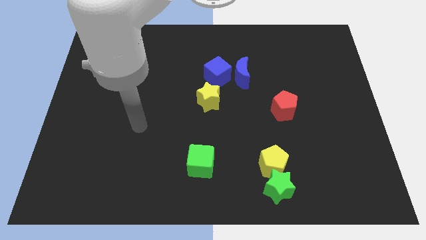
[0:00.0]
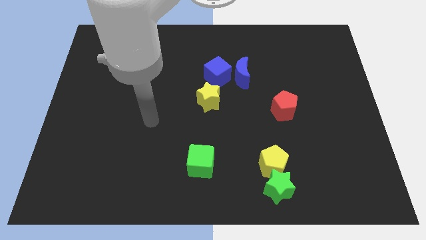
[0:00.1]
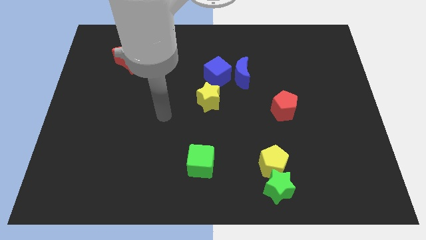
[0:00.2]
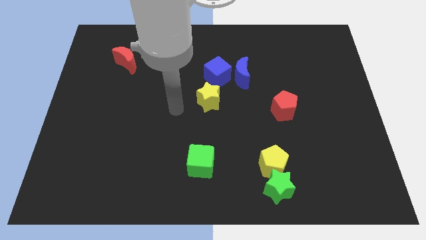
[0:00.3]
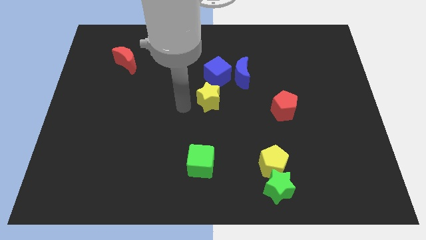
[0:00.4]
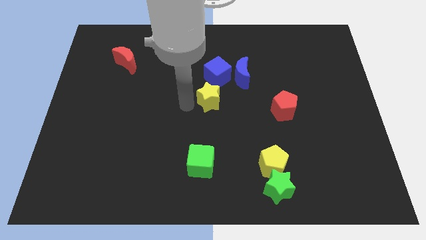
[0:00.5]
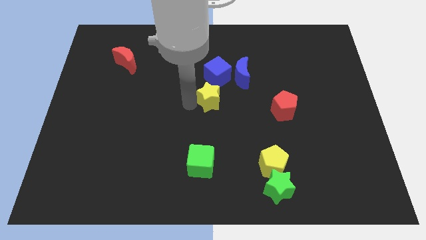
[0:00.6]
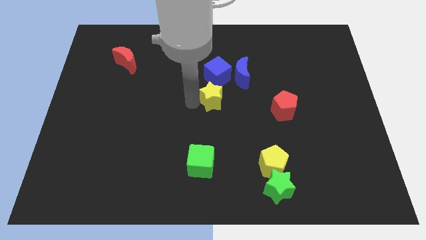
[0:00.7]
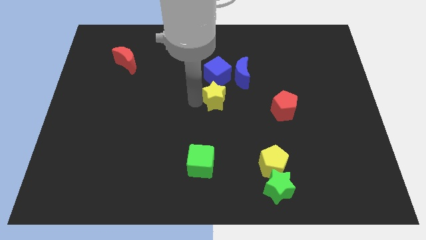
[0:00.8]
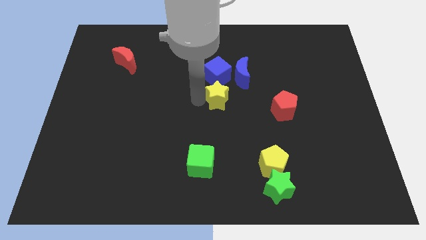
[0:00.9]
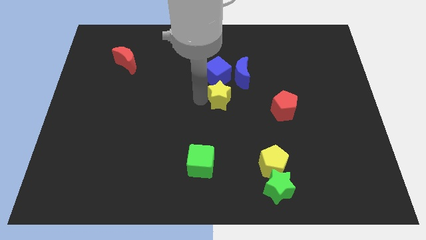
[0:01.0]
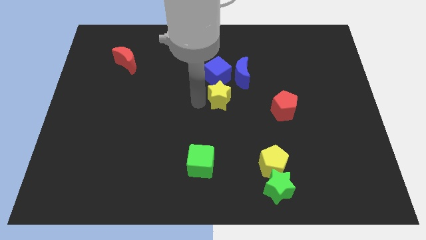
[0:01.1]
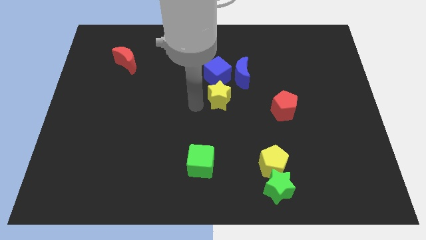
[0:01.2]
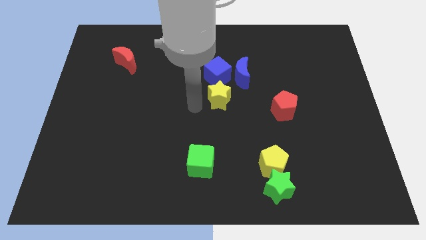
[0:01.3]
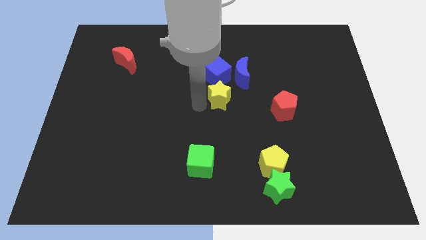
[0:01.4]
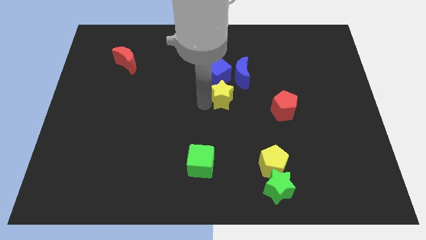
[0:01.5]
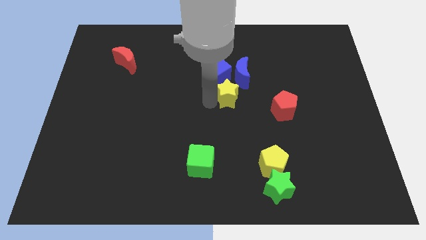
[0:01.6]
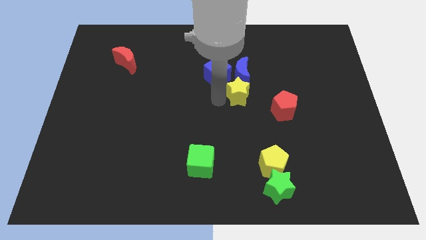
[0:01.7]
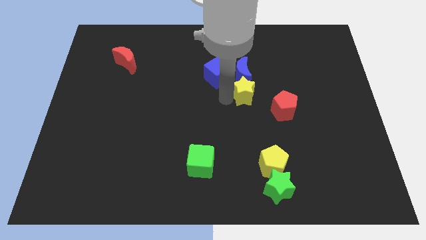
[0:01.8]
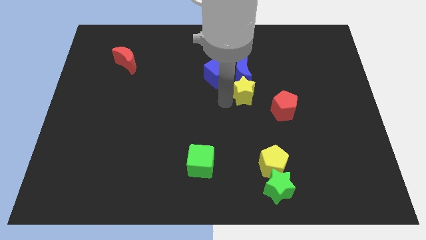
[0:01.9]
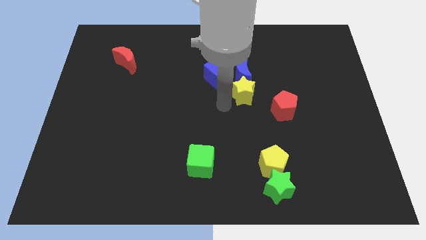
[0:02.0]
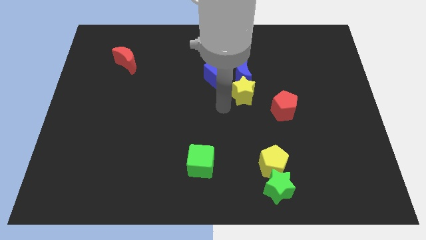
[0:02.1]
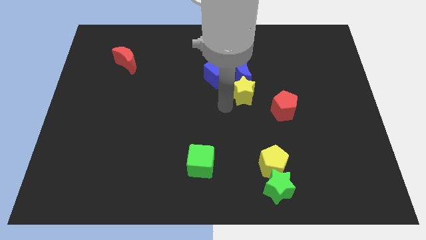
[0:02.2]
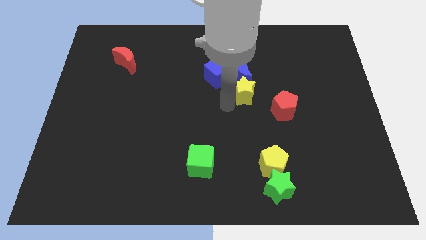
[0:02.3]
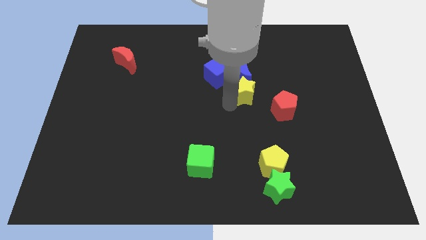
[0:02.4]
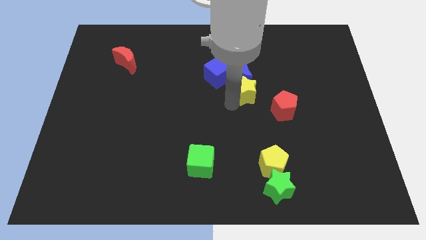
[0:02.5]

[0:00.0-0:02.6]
move the yellow star up and then to the right a bit

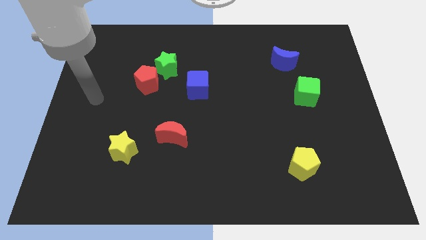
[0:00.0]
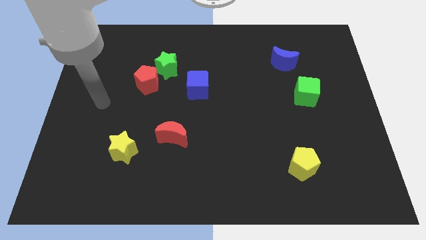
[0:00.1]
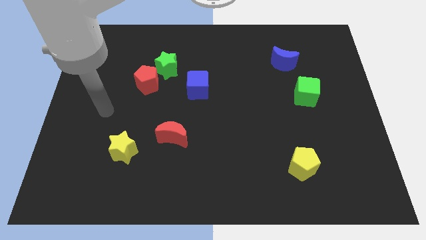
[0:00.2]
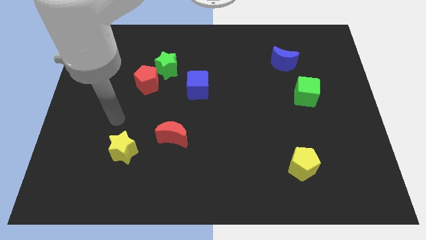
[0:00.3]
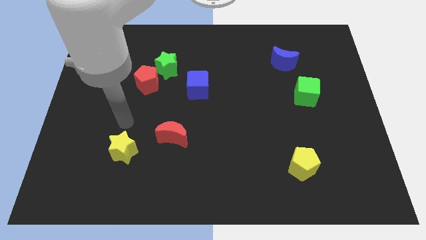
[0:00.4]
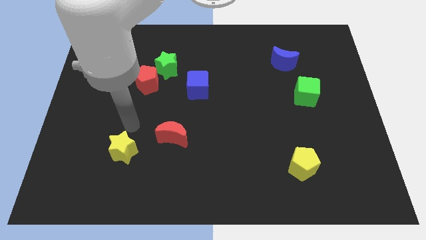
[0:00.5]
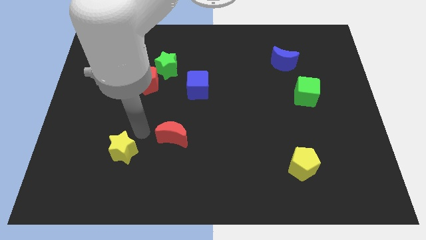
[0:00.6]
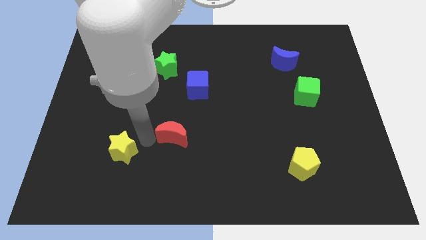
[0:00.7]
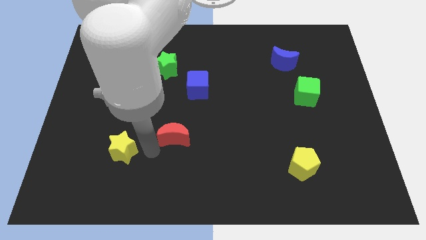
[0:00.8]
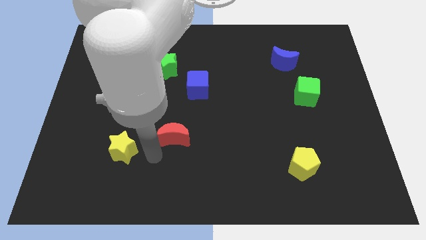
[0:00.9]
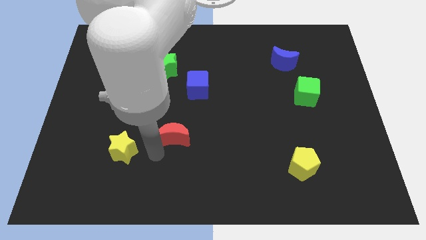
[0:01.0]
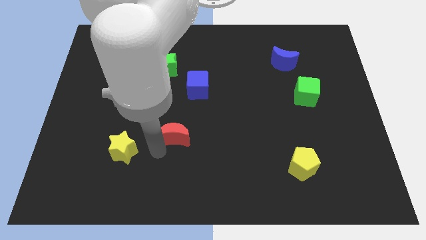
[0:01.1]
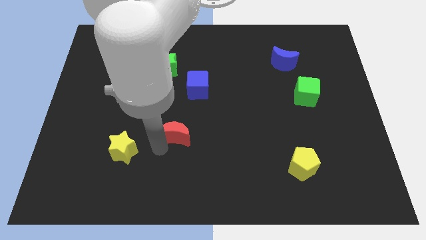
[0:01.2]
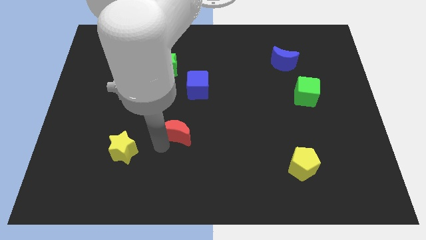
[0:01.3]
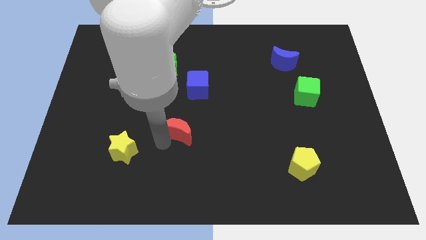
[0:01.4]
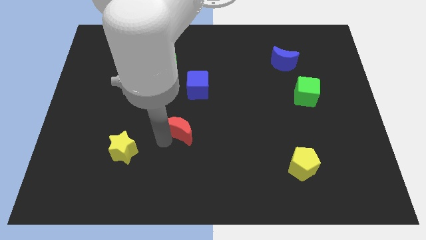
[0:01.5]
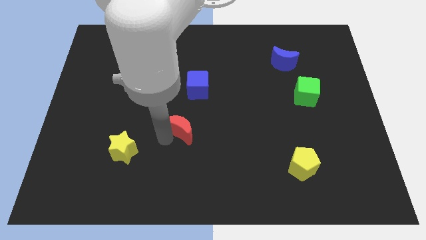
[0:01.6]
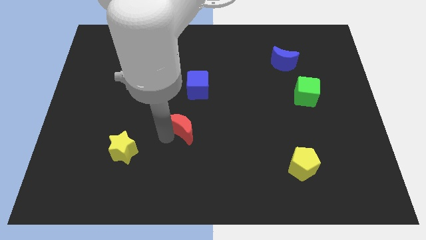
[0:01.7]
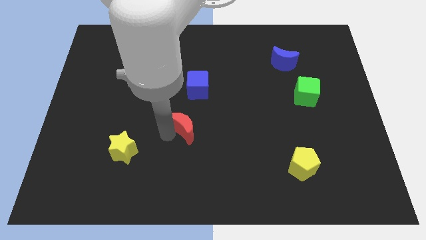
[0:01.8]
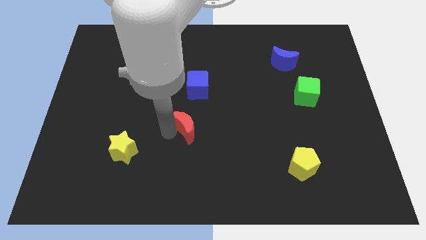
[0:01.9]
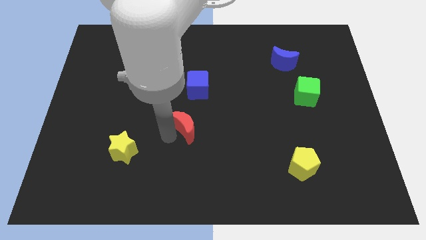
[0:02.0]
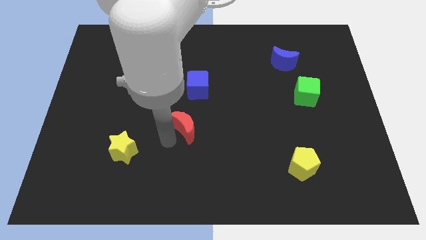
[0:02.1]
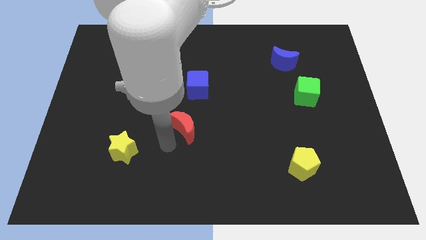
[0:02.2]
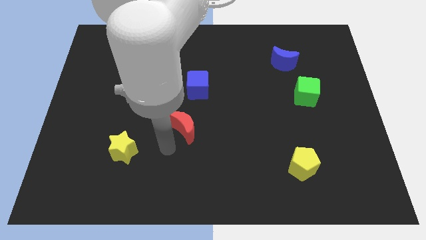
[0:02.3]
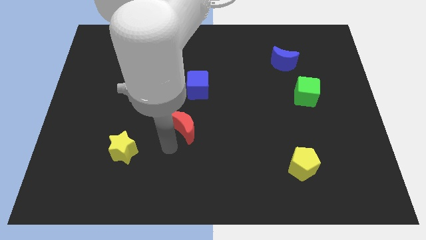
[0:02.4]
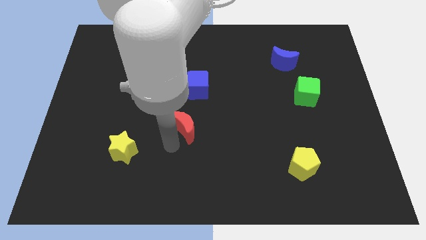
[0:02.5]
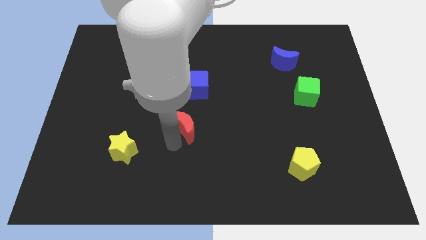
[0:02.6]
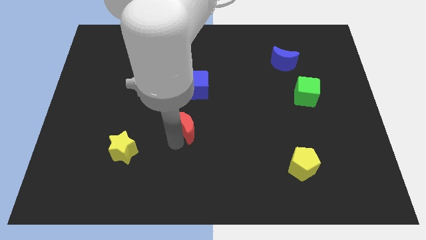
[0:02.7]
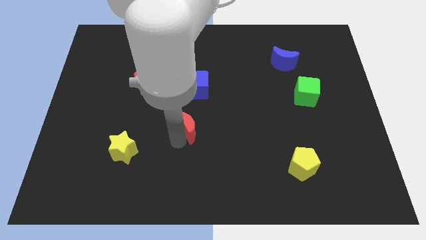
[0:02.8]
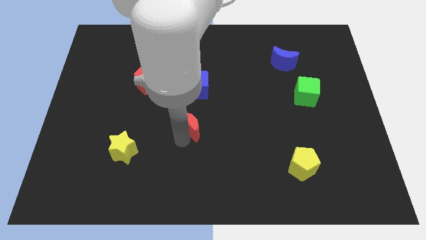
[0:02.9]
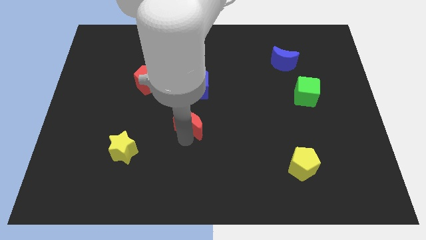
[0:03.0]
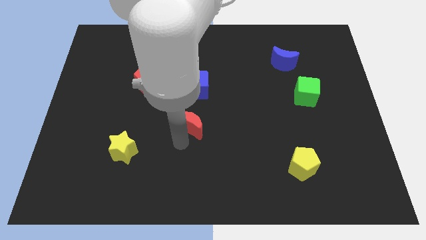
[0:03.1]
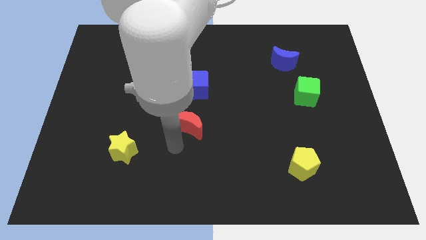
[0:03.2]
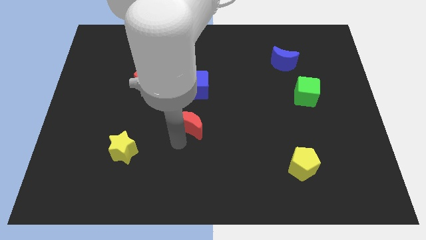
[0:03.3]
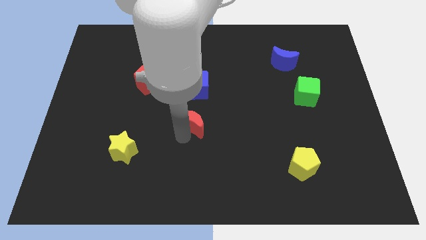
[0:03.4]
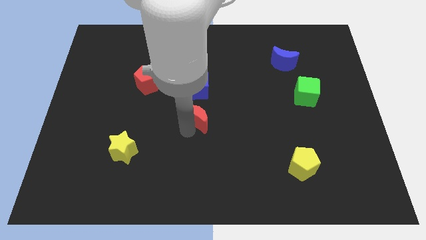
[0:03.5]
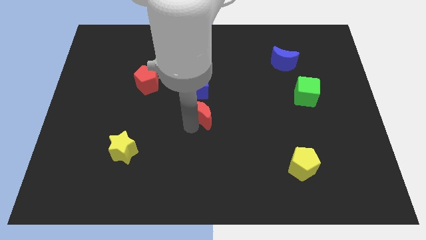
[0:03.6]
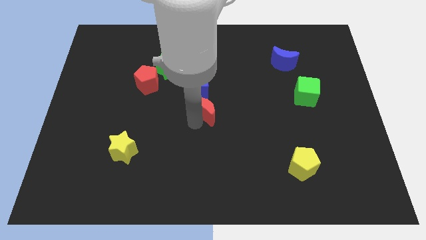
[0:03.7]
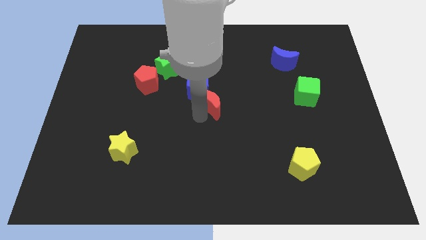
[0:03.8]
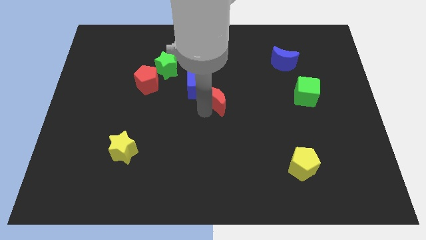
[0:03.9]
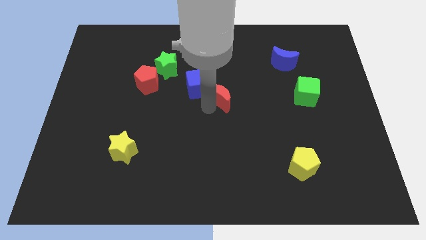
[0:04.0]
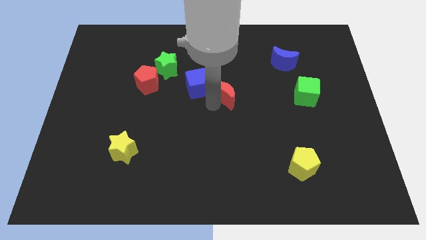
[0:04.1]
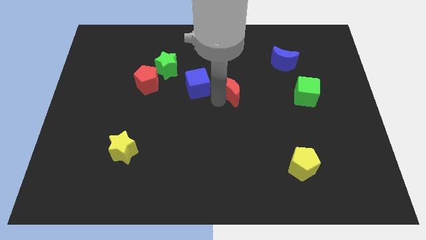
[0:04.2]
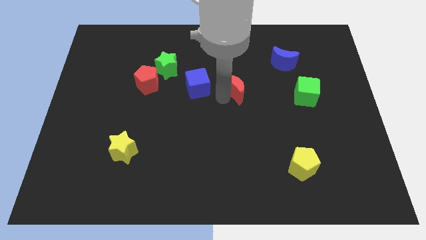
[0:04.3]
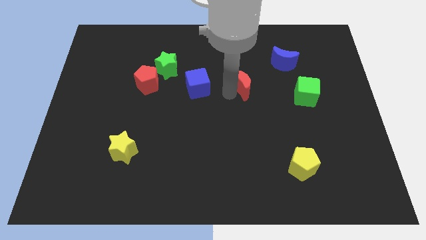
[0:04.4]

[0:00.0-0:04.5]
move the red moon diagonally up and to the right

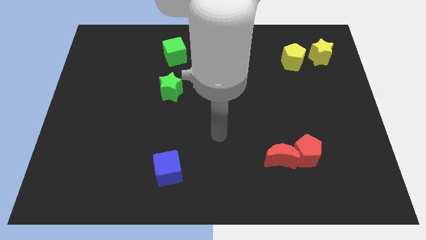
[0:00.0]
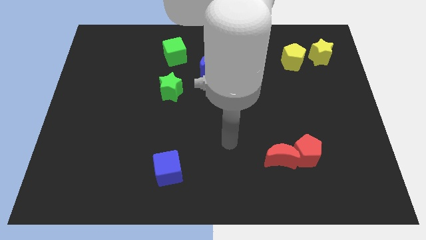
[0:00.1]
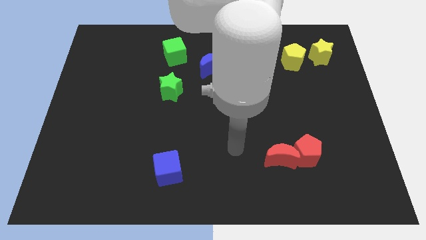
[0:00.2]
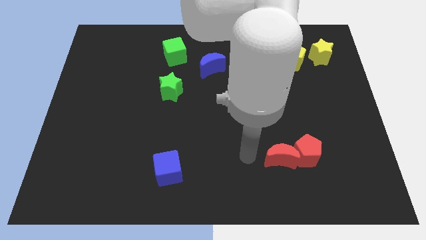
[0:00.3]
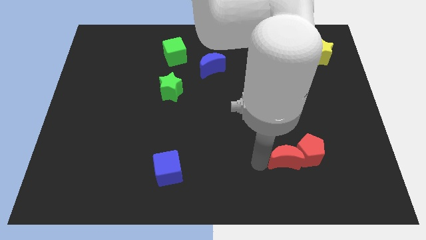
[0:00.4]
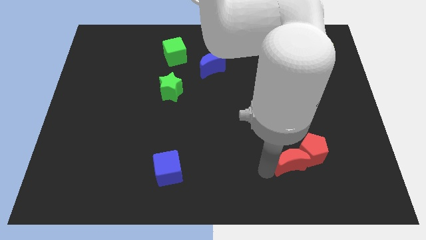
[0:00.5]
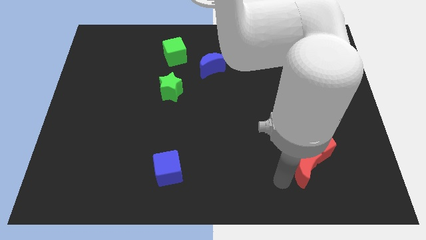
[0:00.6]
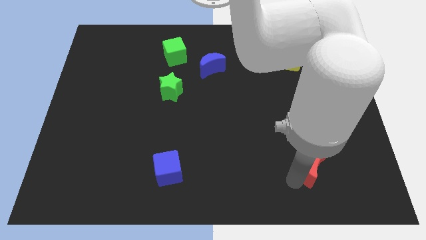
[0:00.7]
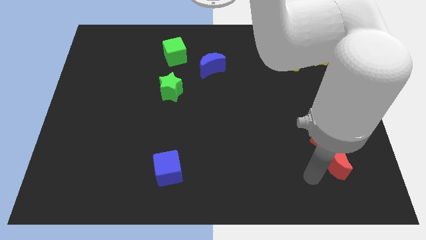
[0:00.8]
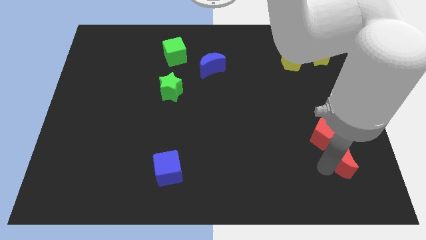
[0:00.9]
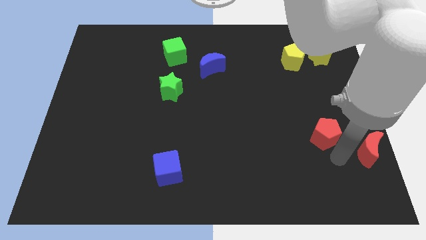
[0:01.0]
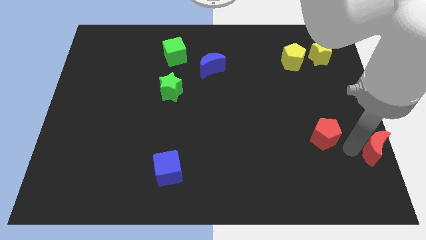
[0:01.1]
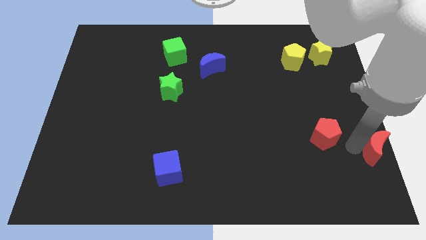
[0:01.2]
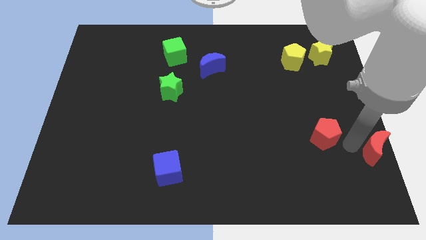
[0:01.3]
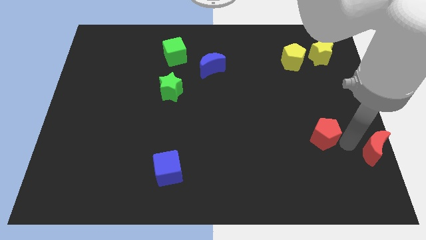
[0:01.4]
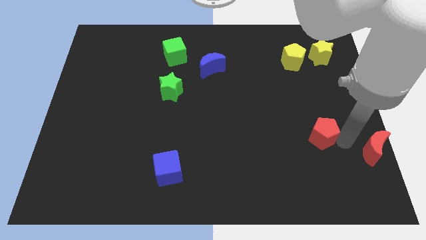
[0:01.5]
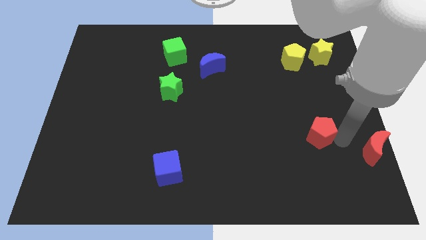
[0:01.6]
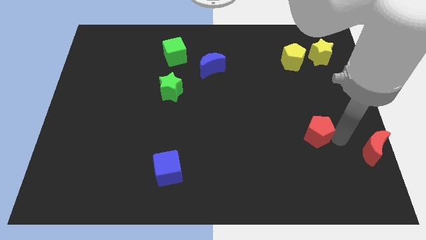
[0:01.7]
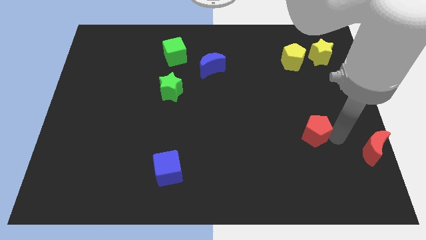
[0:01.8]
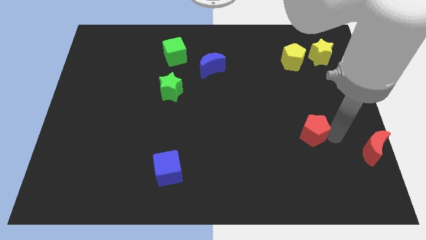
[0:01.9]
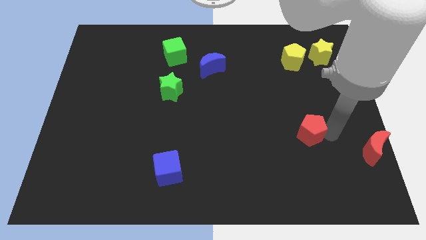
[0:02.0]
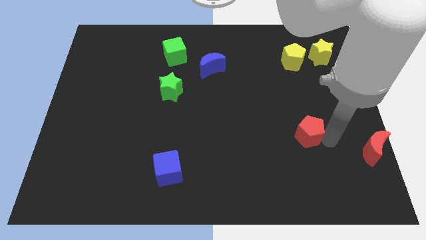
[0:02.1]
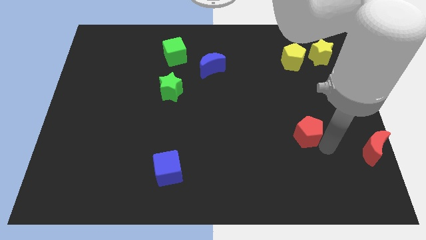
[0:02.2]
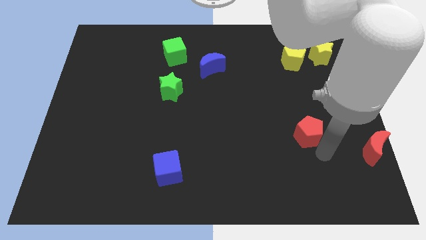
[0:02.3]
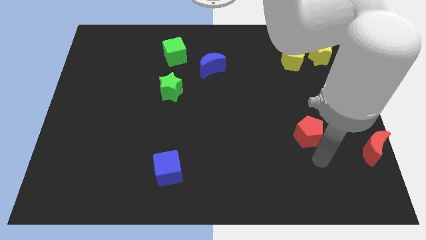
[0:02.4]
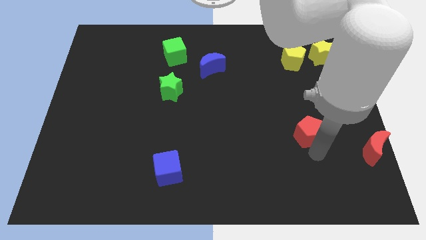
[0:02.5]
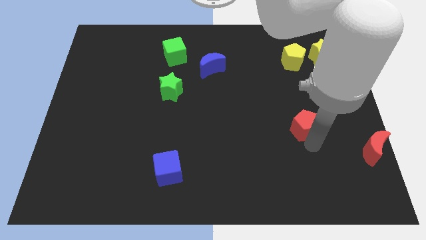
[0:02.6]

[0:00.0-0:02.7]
slightly move the red pentagon up
